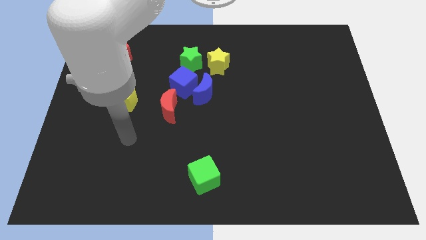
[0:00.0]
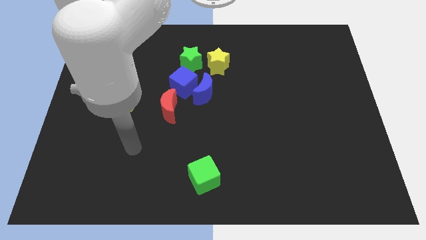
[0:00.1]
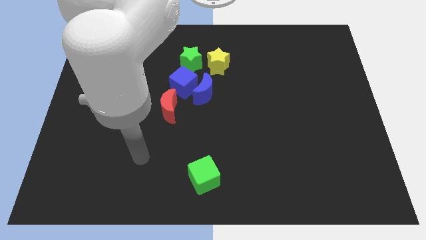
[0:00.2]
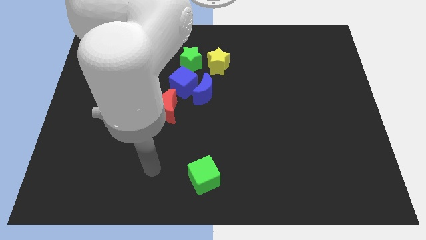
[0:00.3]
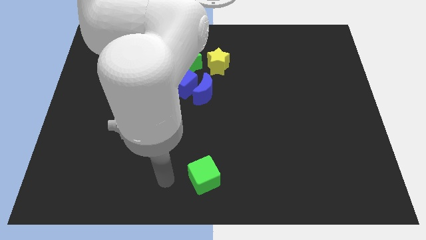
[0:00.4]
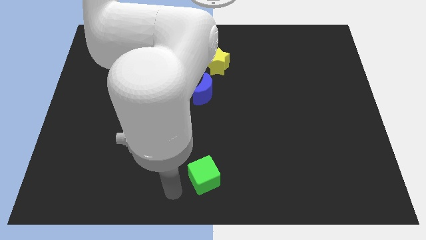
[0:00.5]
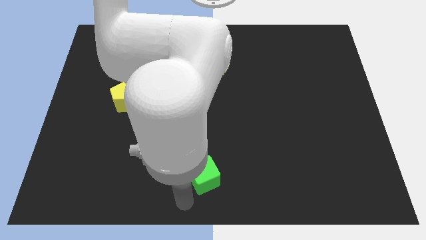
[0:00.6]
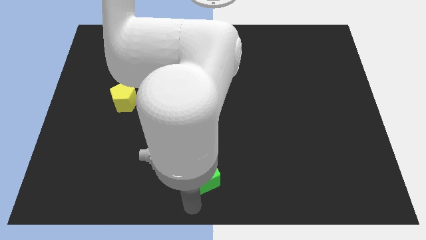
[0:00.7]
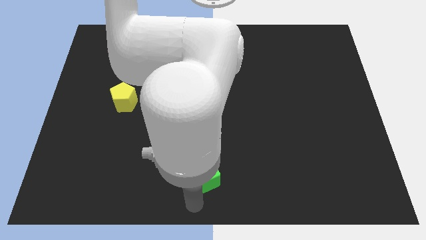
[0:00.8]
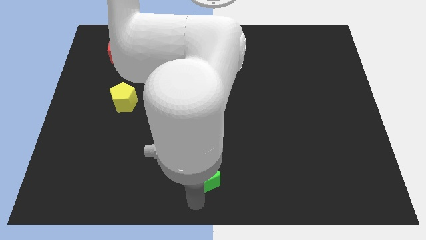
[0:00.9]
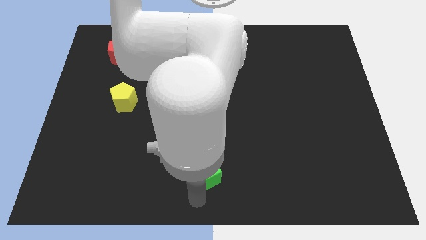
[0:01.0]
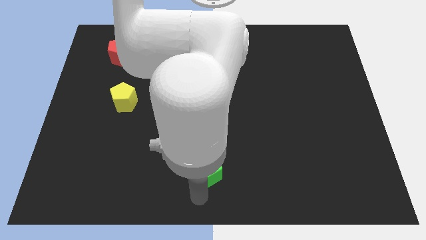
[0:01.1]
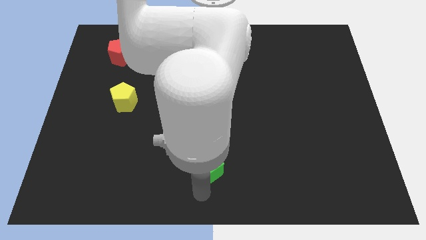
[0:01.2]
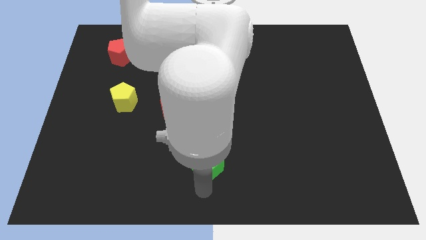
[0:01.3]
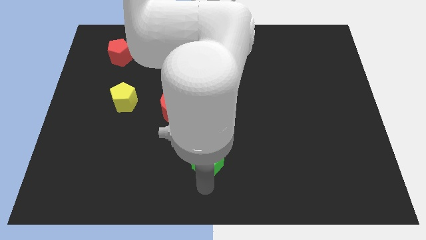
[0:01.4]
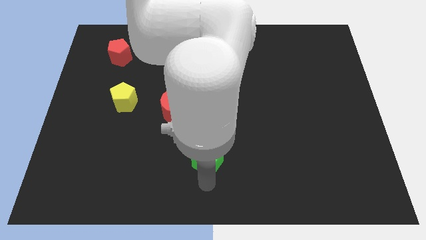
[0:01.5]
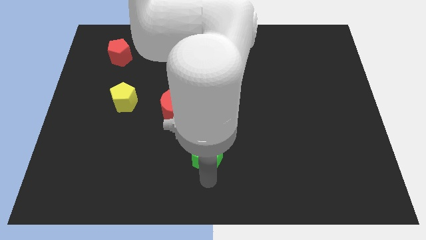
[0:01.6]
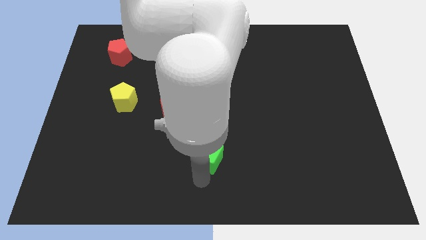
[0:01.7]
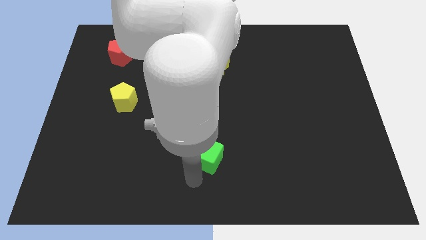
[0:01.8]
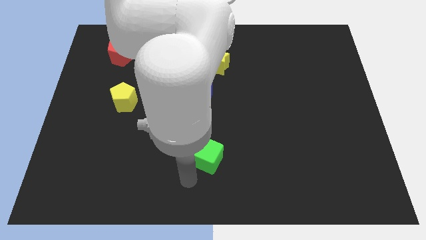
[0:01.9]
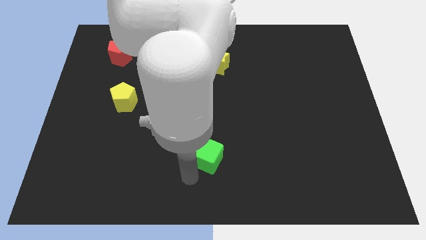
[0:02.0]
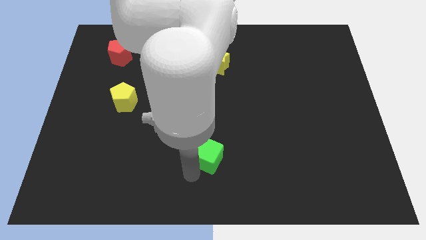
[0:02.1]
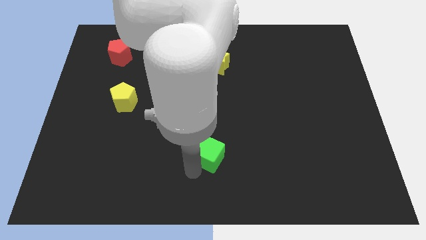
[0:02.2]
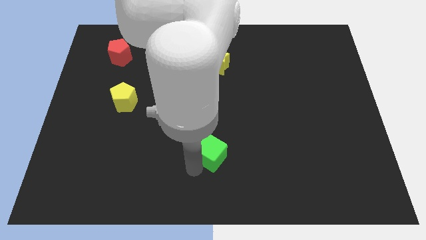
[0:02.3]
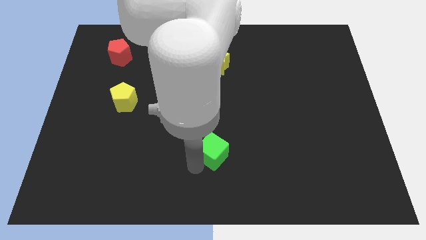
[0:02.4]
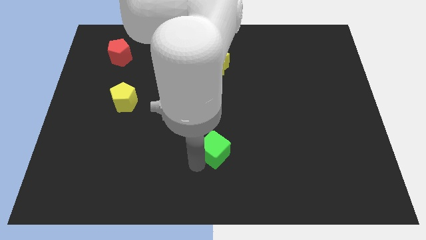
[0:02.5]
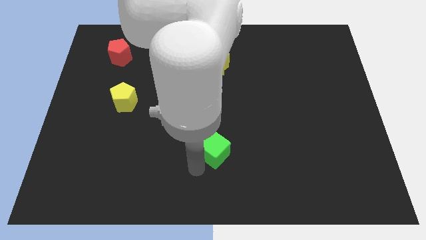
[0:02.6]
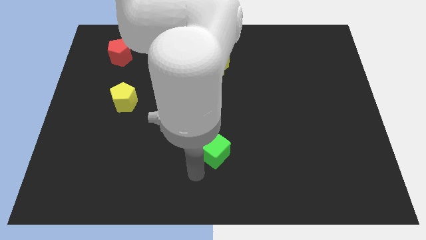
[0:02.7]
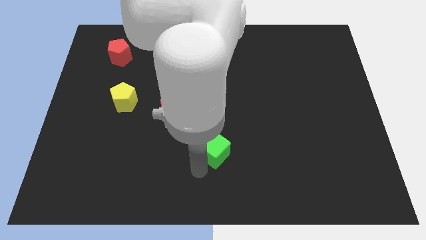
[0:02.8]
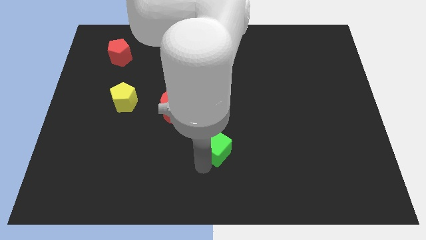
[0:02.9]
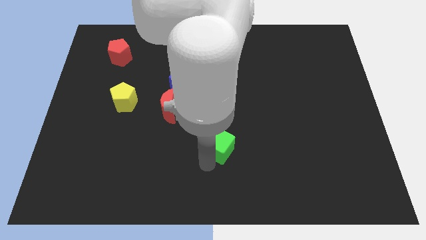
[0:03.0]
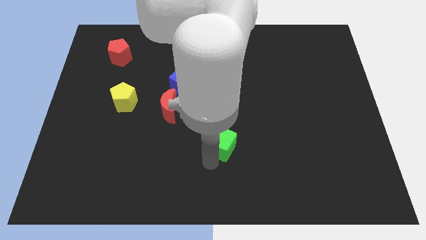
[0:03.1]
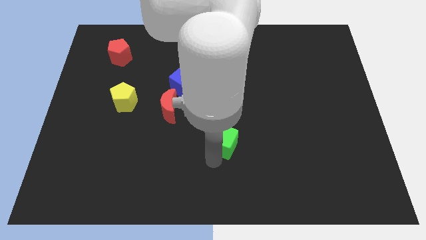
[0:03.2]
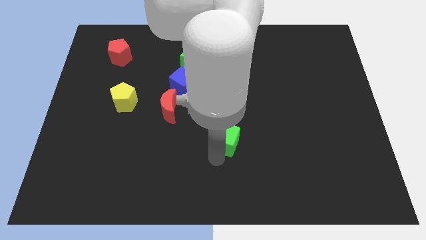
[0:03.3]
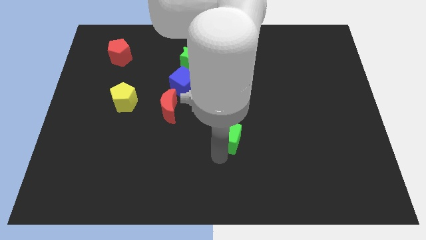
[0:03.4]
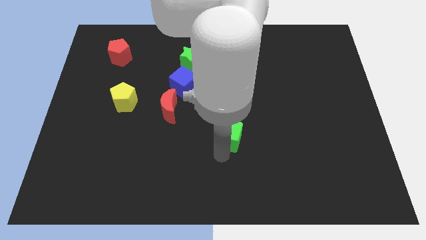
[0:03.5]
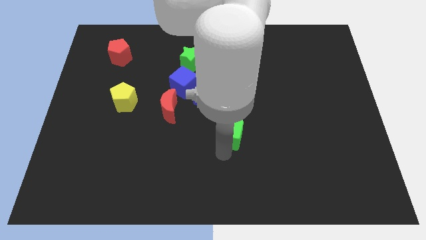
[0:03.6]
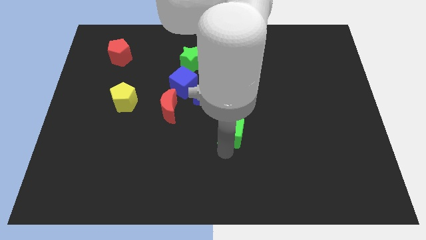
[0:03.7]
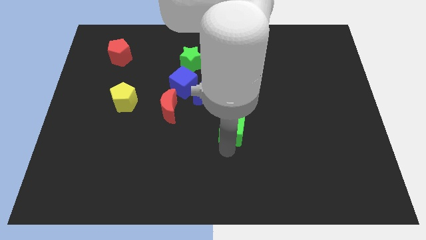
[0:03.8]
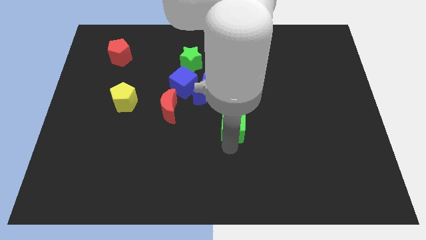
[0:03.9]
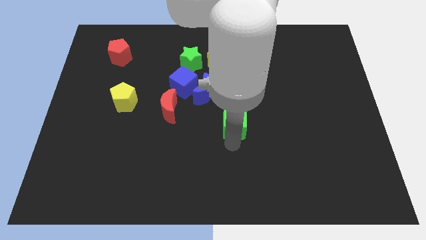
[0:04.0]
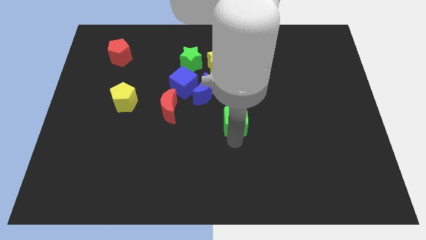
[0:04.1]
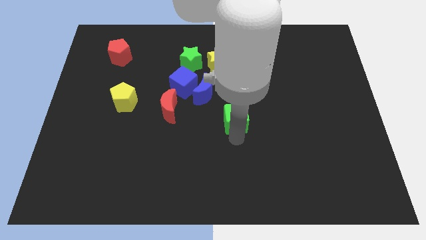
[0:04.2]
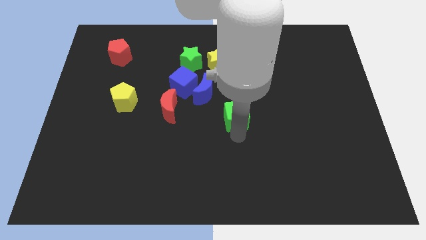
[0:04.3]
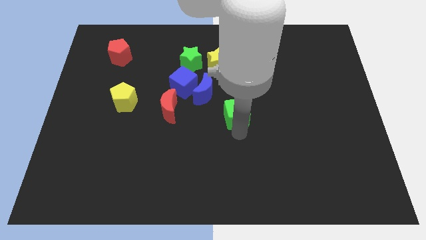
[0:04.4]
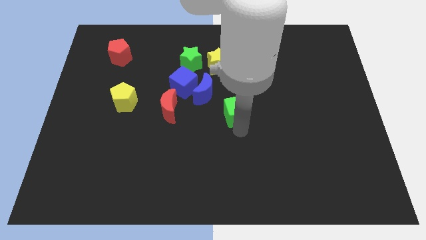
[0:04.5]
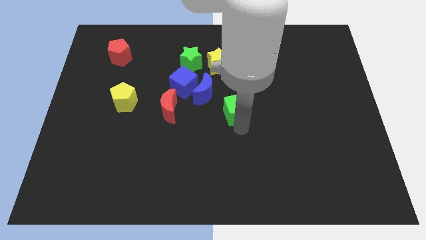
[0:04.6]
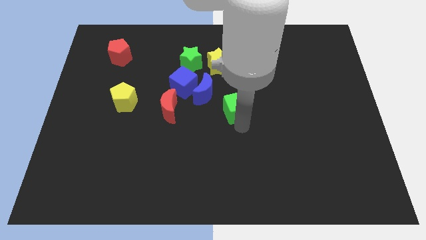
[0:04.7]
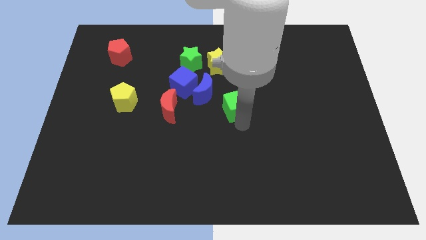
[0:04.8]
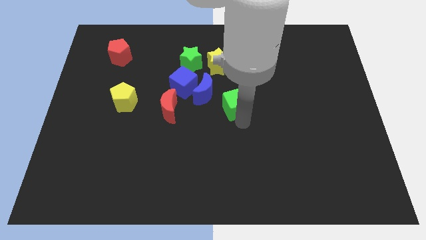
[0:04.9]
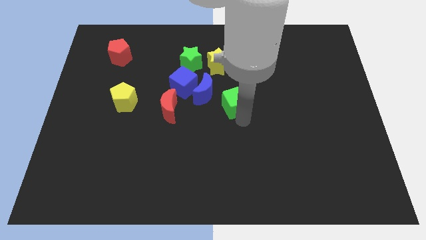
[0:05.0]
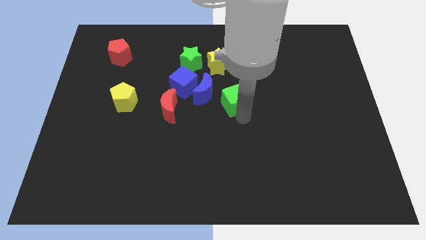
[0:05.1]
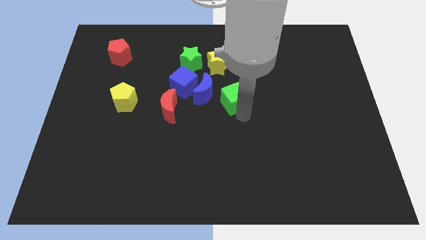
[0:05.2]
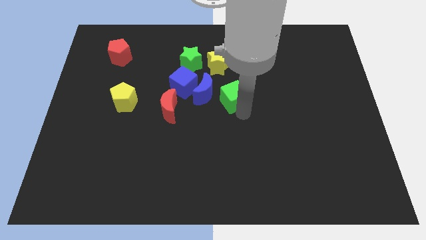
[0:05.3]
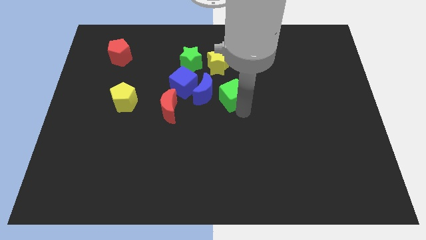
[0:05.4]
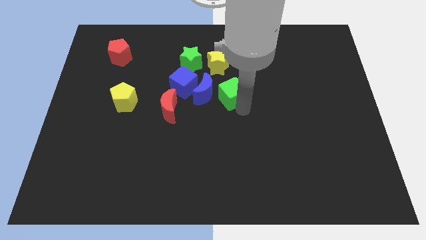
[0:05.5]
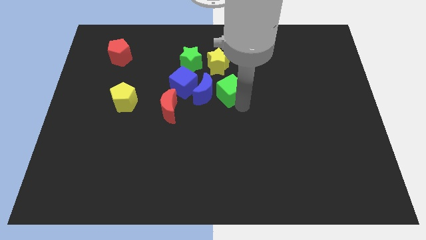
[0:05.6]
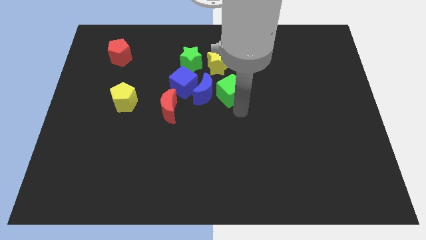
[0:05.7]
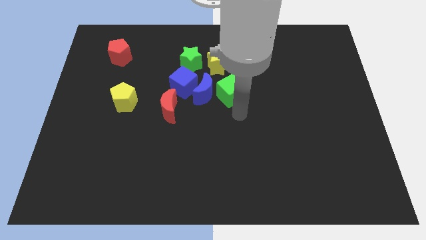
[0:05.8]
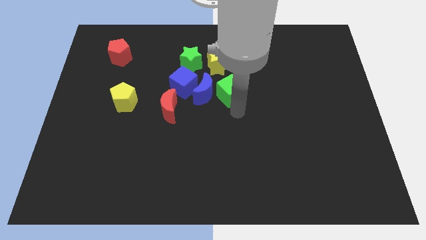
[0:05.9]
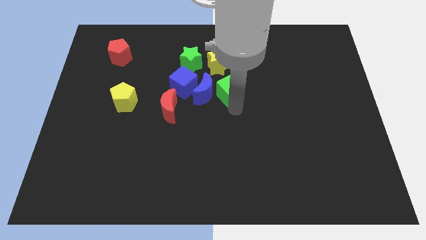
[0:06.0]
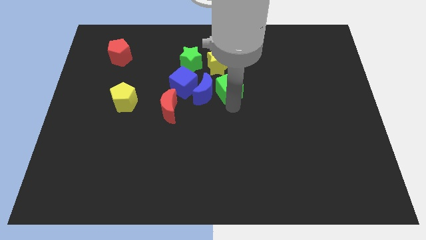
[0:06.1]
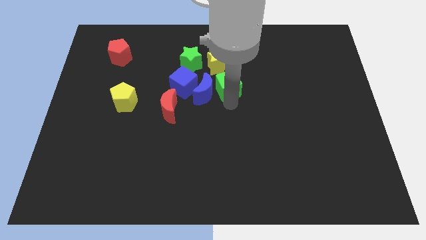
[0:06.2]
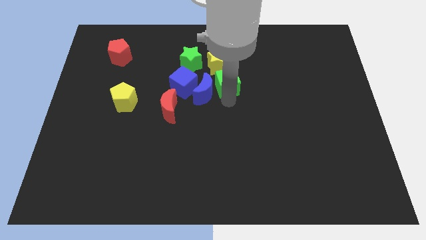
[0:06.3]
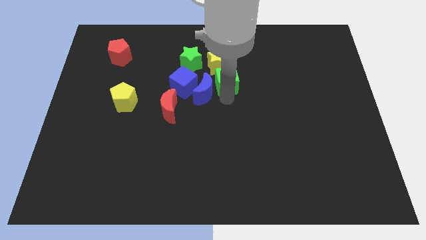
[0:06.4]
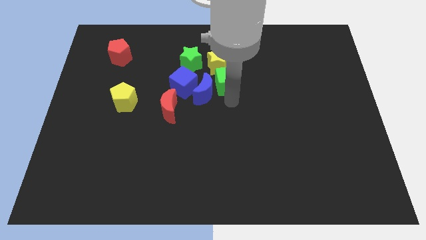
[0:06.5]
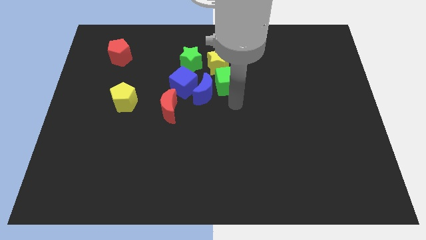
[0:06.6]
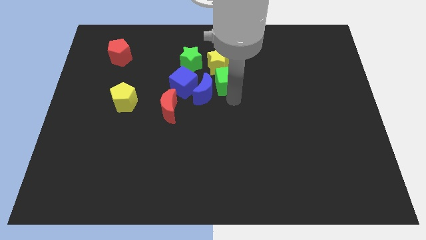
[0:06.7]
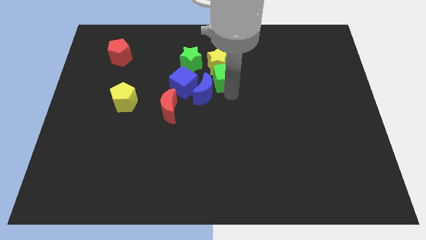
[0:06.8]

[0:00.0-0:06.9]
slide the green cube close to the yellow star

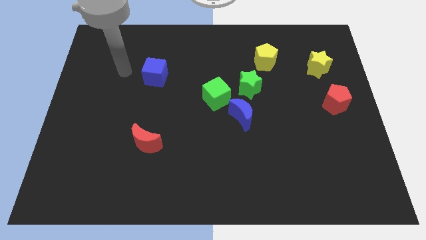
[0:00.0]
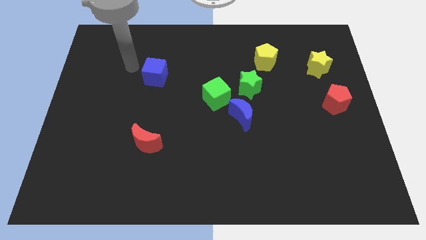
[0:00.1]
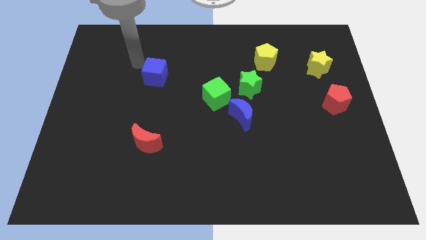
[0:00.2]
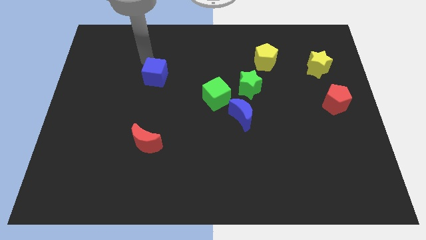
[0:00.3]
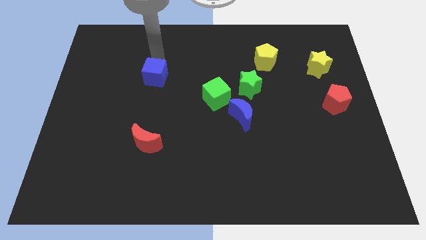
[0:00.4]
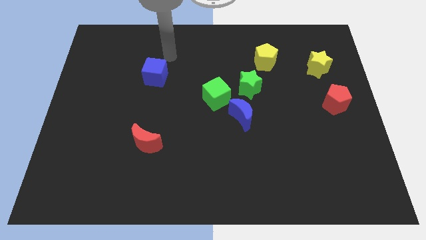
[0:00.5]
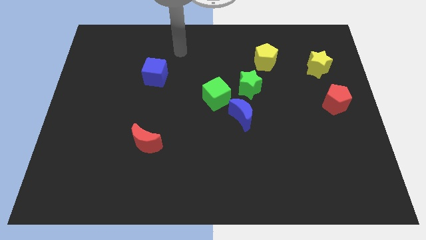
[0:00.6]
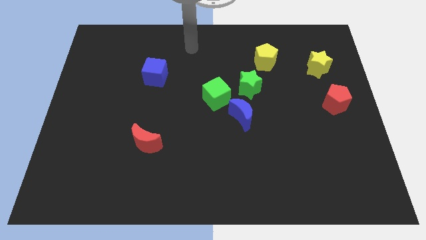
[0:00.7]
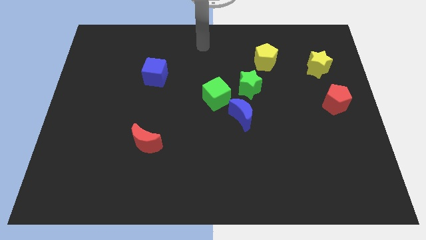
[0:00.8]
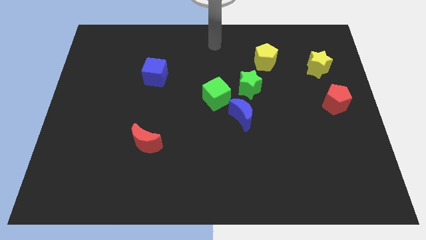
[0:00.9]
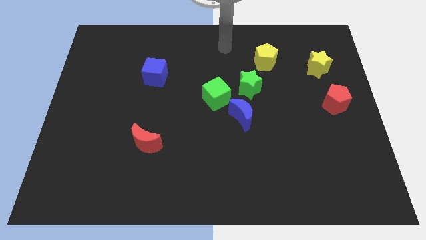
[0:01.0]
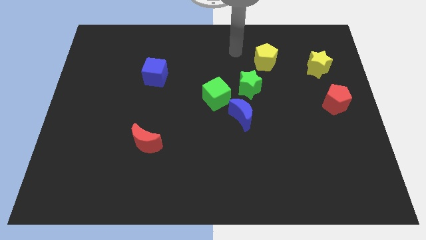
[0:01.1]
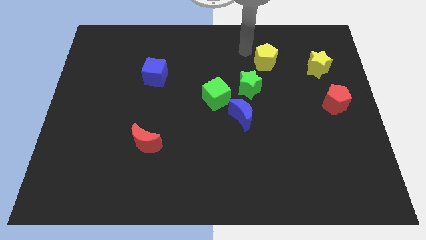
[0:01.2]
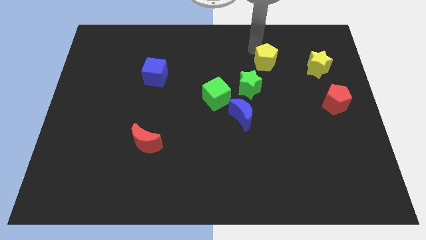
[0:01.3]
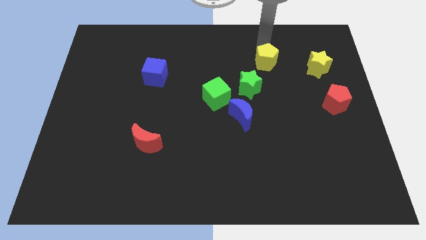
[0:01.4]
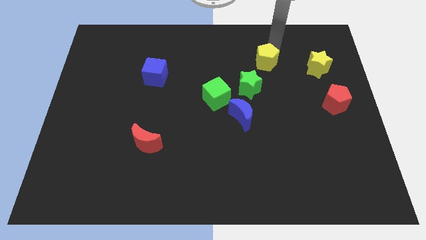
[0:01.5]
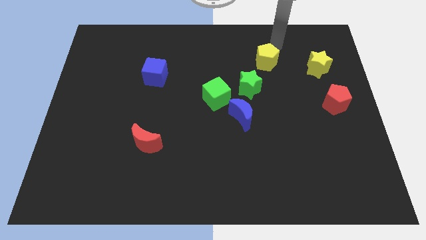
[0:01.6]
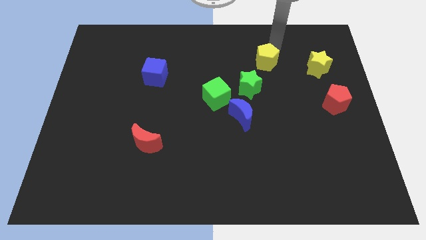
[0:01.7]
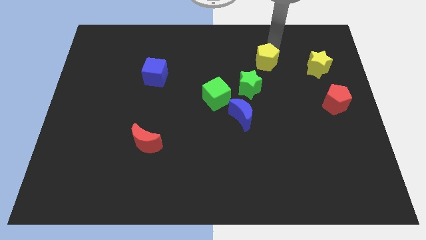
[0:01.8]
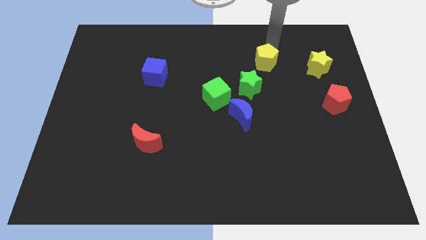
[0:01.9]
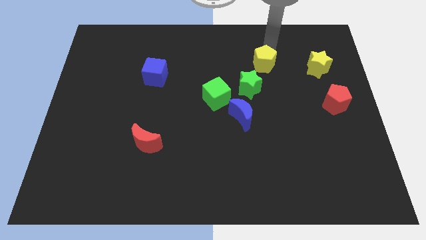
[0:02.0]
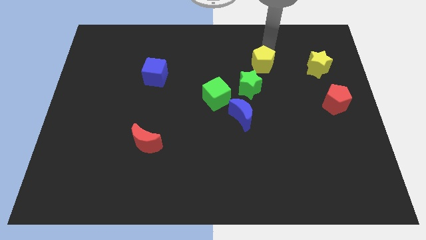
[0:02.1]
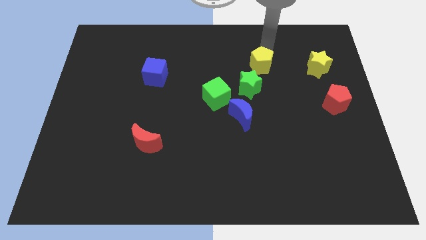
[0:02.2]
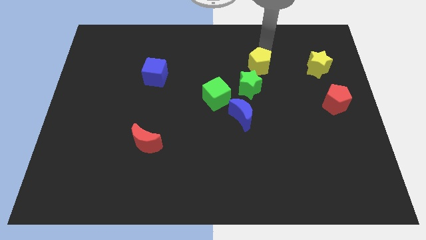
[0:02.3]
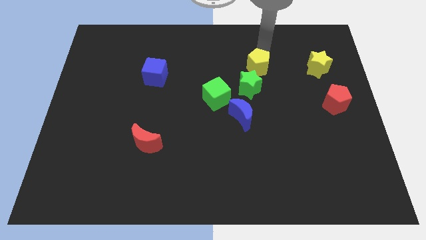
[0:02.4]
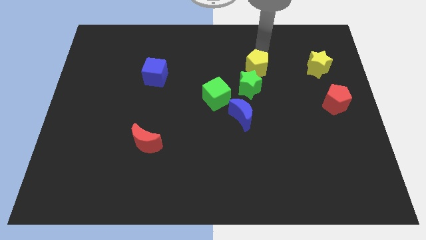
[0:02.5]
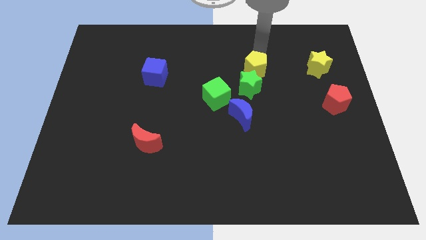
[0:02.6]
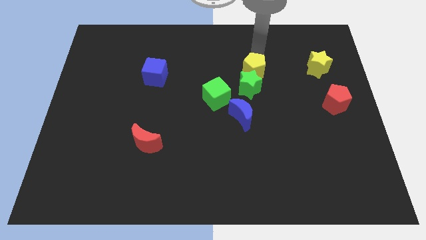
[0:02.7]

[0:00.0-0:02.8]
move the yellow pentagon next to the green star
